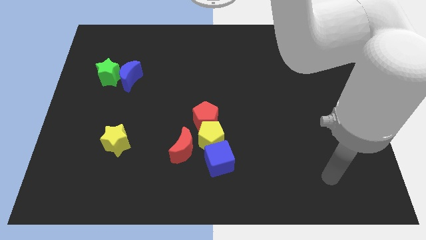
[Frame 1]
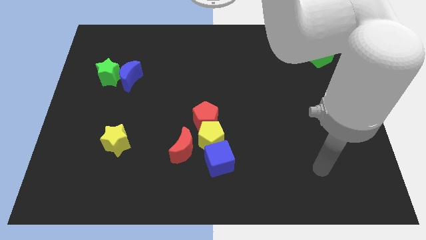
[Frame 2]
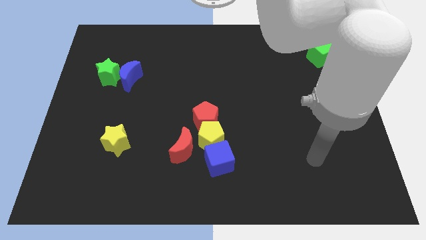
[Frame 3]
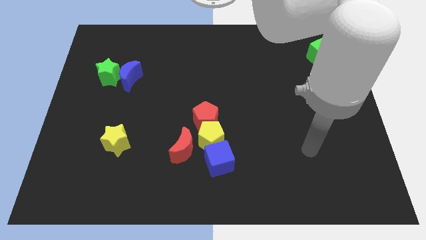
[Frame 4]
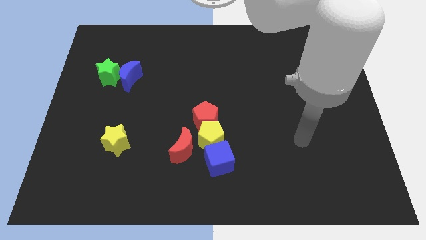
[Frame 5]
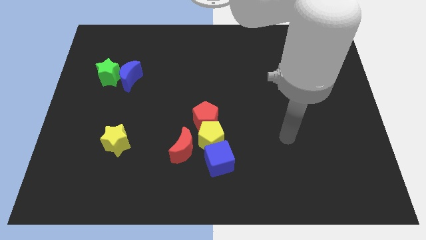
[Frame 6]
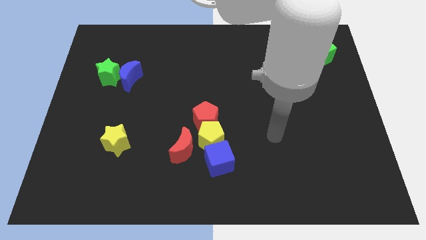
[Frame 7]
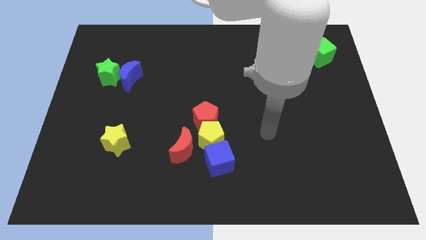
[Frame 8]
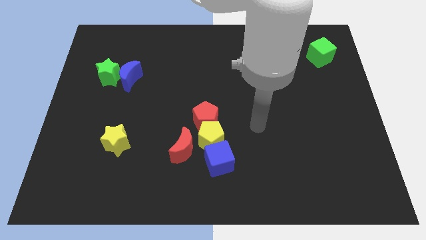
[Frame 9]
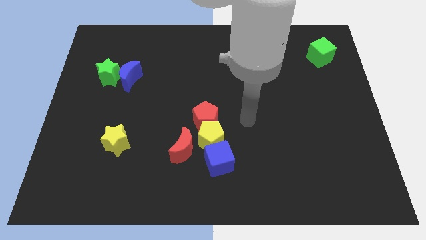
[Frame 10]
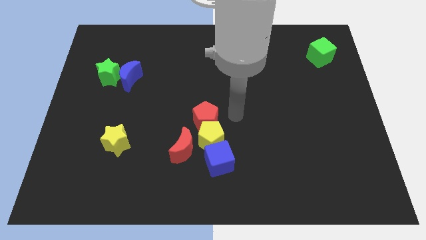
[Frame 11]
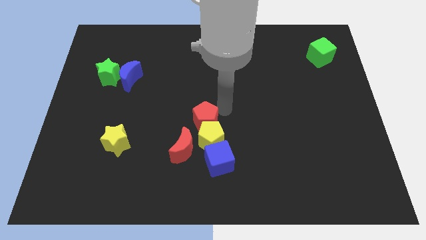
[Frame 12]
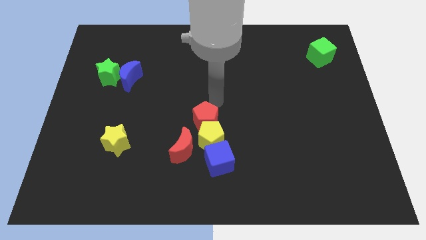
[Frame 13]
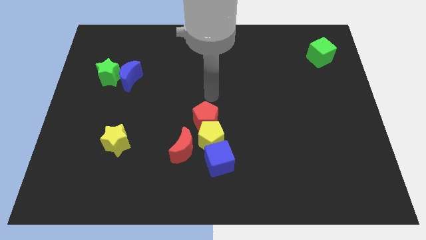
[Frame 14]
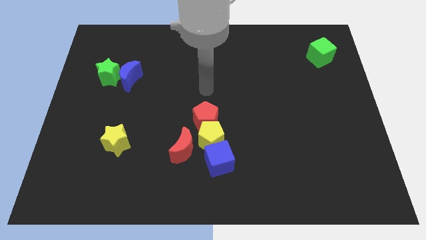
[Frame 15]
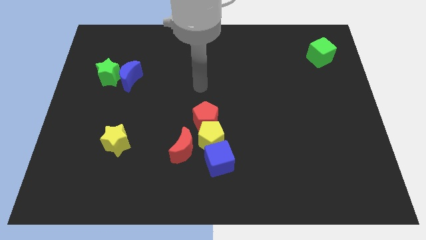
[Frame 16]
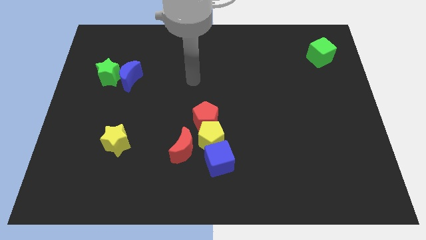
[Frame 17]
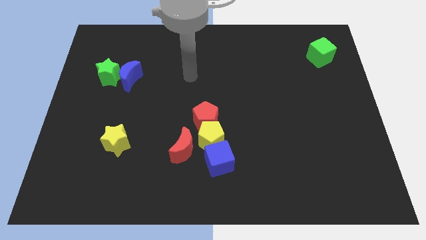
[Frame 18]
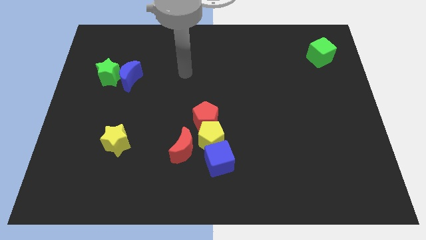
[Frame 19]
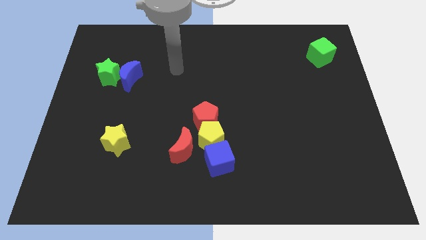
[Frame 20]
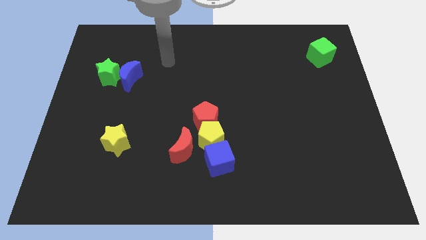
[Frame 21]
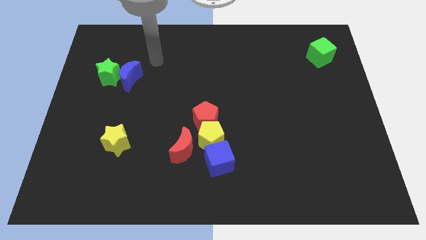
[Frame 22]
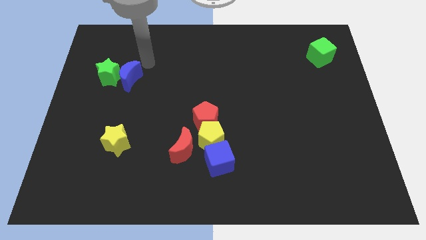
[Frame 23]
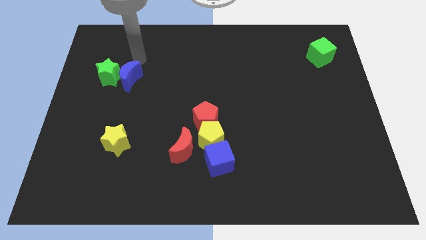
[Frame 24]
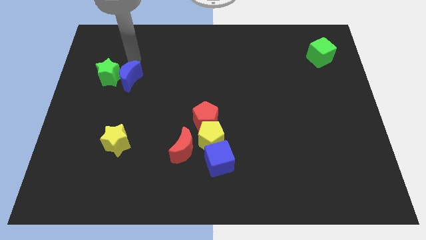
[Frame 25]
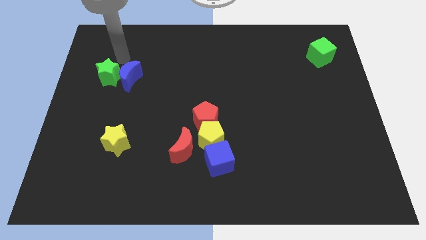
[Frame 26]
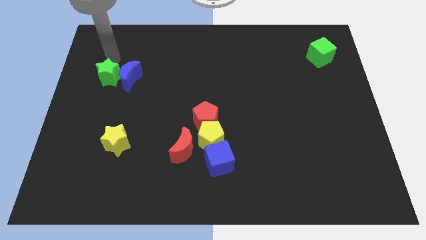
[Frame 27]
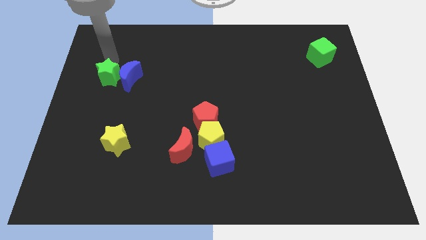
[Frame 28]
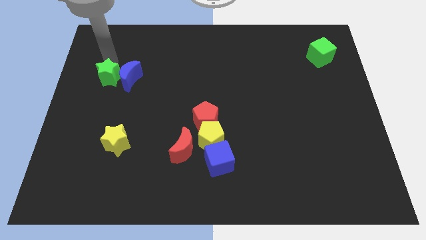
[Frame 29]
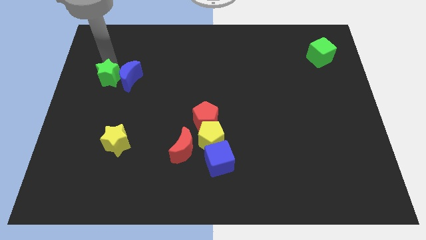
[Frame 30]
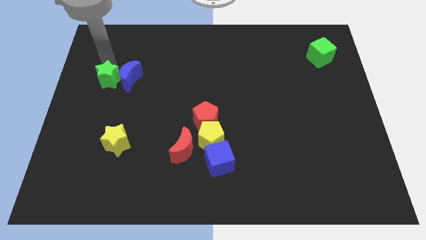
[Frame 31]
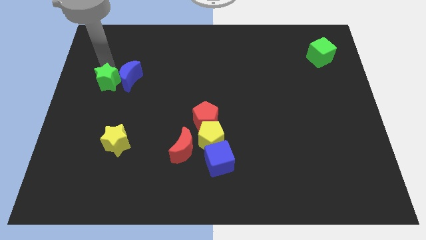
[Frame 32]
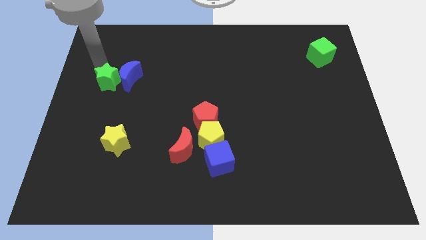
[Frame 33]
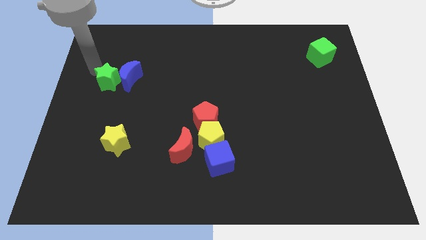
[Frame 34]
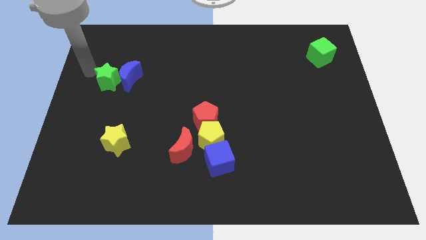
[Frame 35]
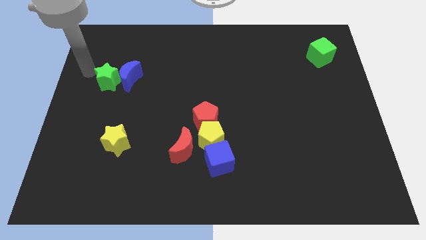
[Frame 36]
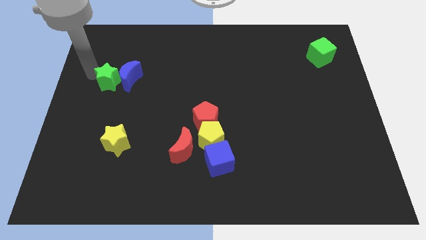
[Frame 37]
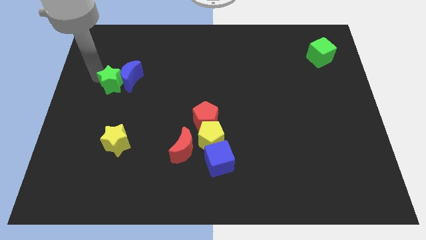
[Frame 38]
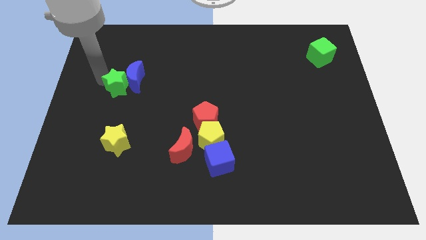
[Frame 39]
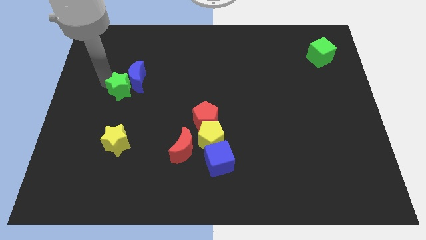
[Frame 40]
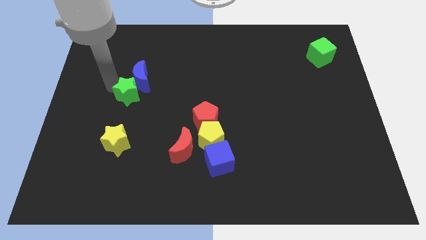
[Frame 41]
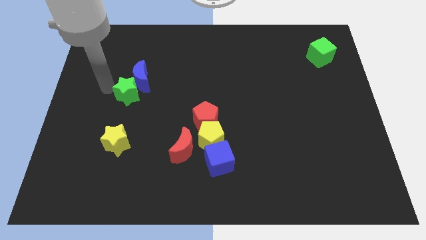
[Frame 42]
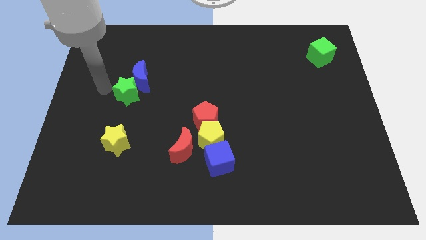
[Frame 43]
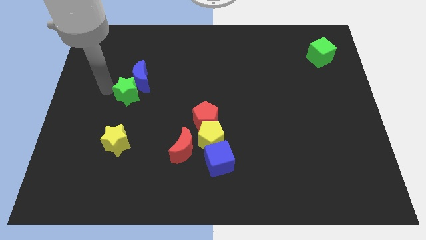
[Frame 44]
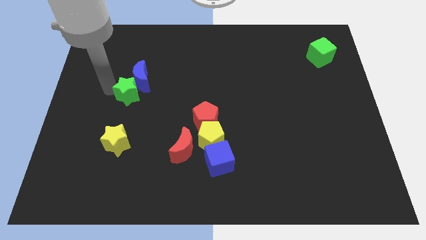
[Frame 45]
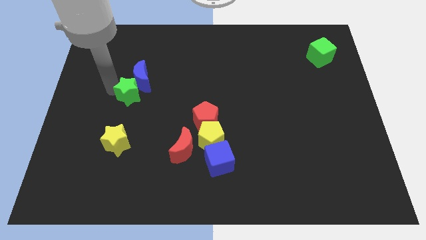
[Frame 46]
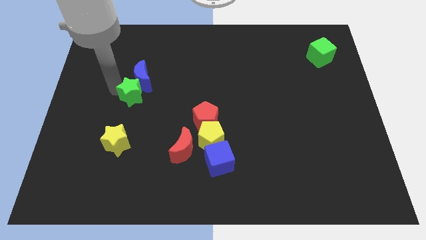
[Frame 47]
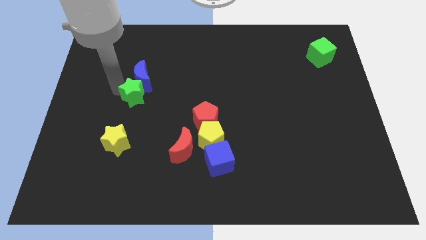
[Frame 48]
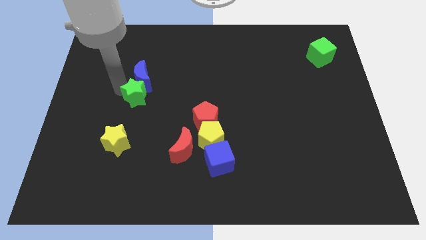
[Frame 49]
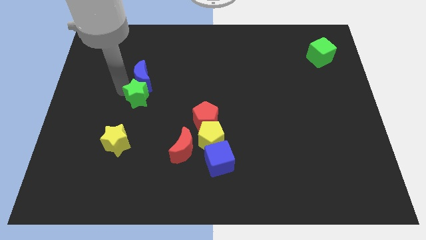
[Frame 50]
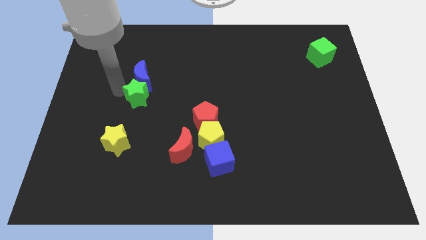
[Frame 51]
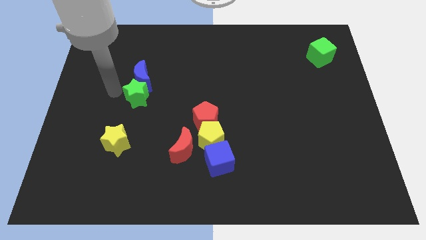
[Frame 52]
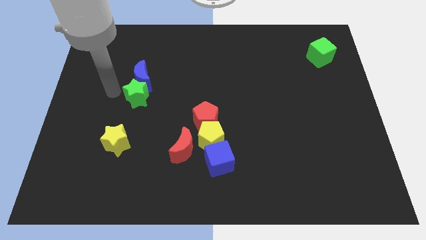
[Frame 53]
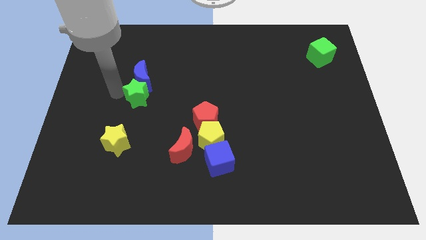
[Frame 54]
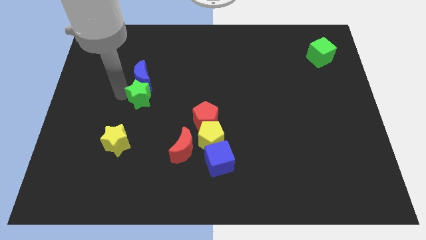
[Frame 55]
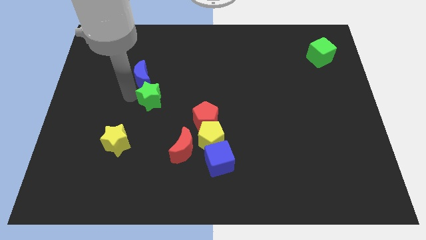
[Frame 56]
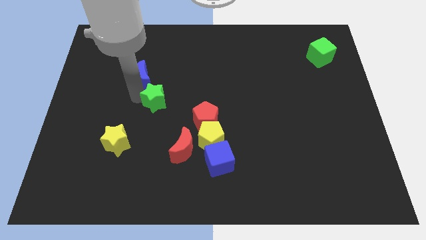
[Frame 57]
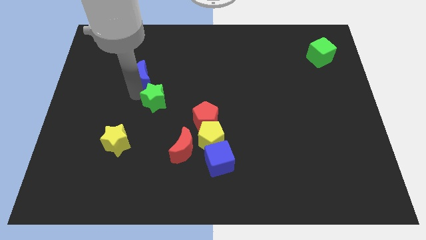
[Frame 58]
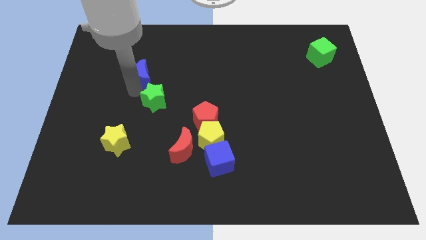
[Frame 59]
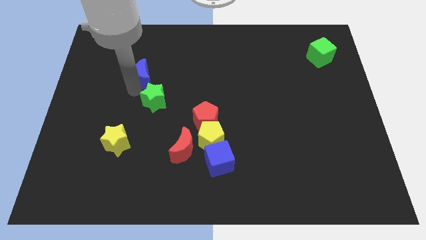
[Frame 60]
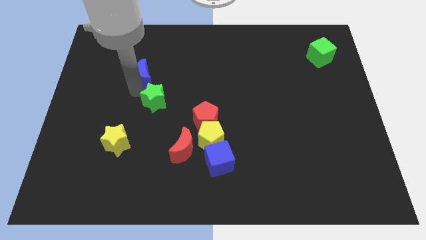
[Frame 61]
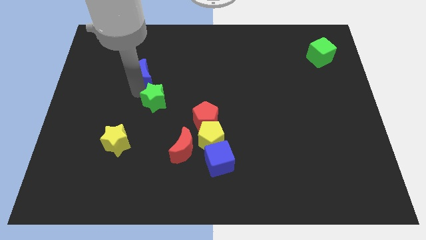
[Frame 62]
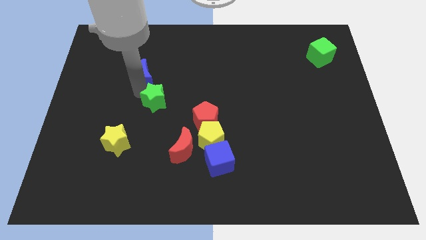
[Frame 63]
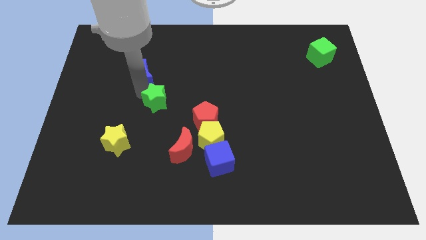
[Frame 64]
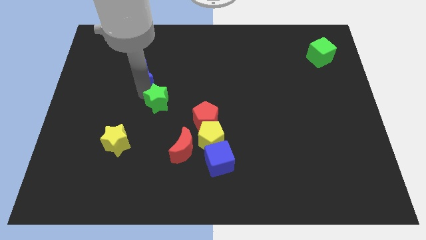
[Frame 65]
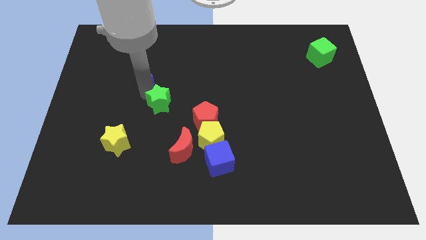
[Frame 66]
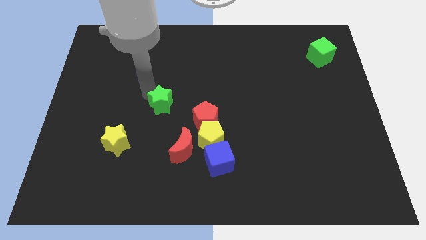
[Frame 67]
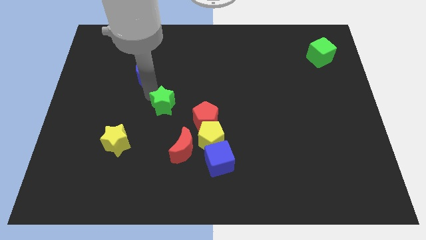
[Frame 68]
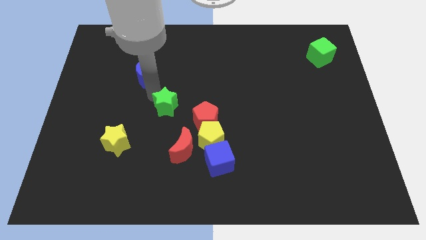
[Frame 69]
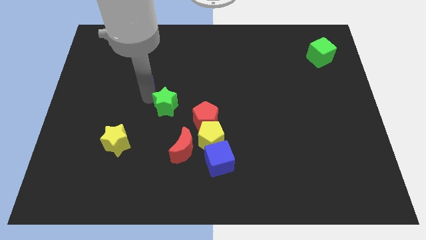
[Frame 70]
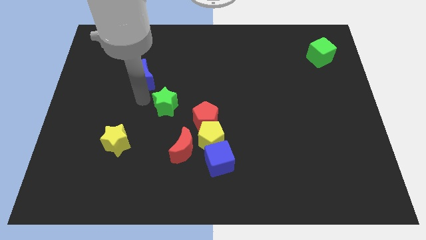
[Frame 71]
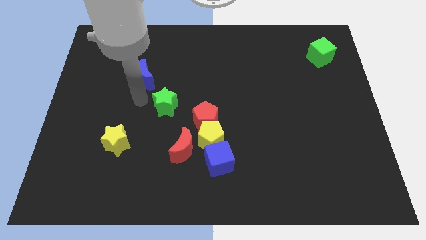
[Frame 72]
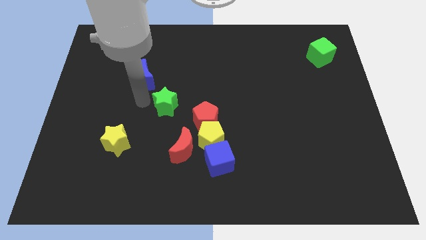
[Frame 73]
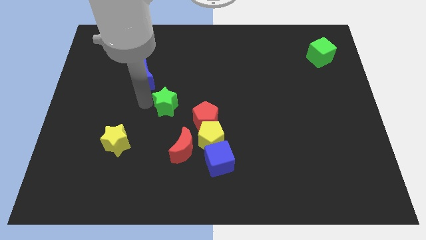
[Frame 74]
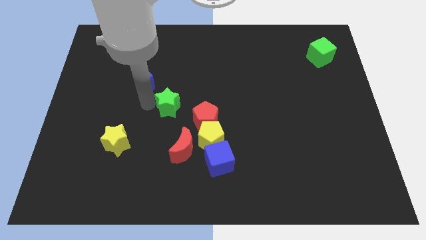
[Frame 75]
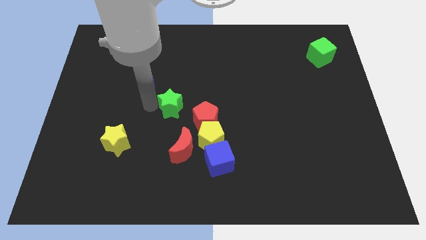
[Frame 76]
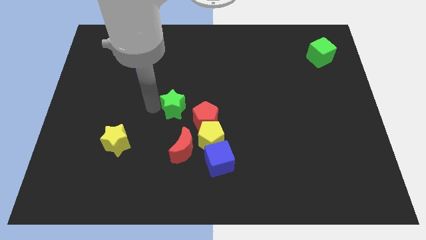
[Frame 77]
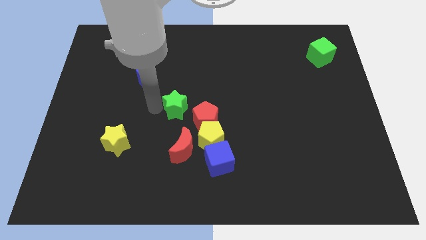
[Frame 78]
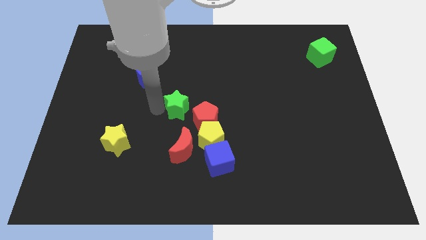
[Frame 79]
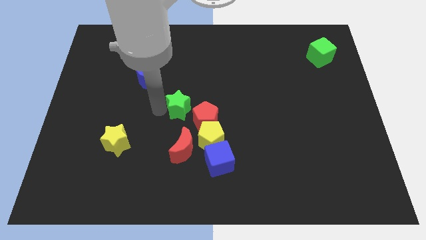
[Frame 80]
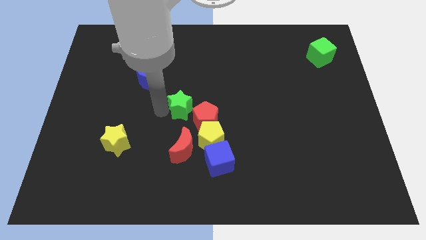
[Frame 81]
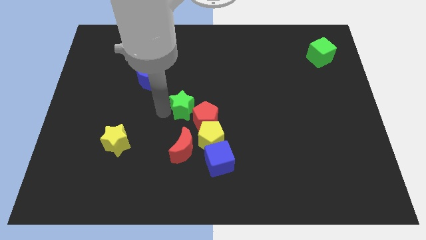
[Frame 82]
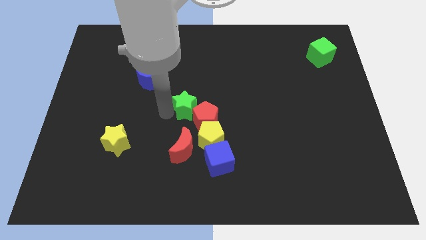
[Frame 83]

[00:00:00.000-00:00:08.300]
push the green star towards the red pentagon
